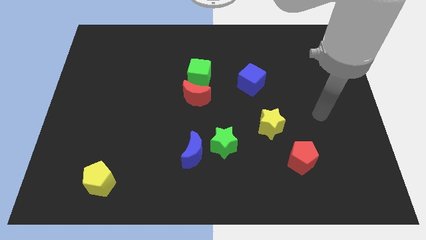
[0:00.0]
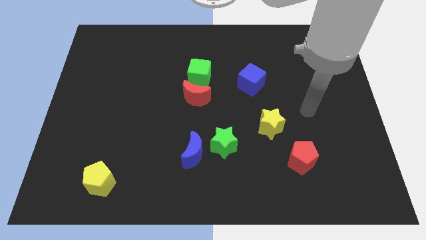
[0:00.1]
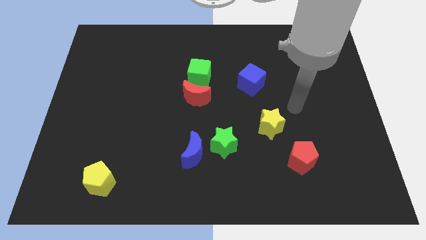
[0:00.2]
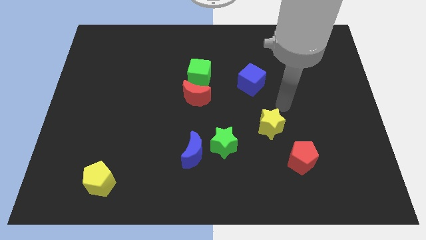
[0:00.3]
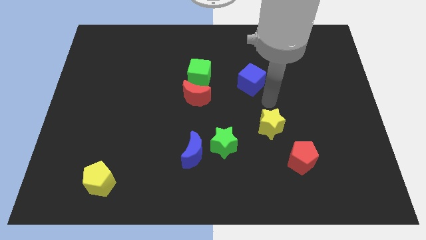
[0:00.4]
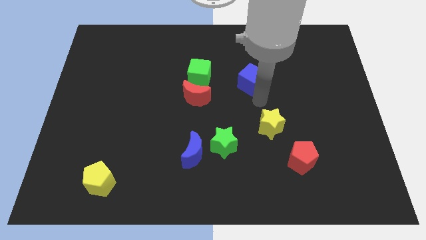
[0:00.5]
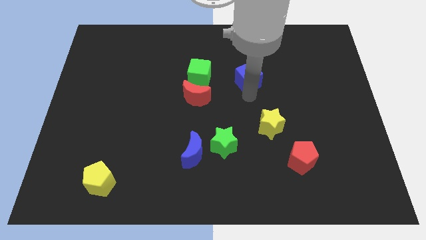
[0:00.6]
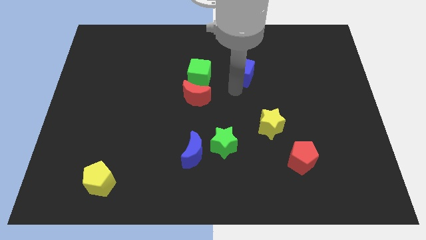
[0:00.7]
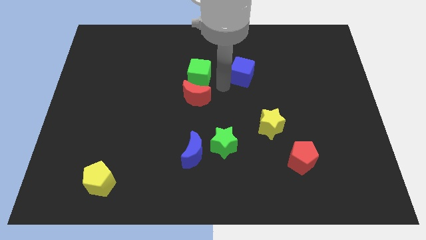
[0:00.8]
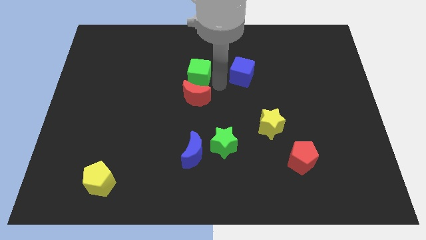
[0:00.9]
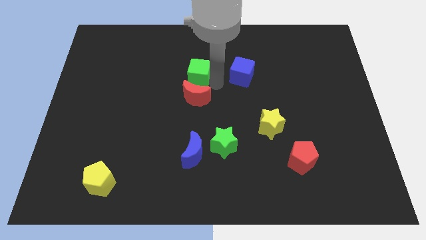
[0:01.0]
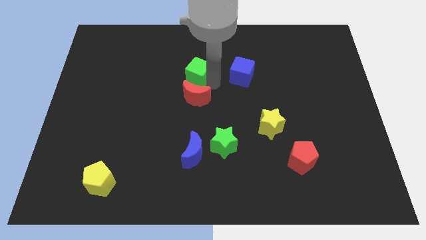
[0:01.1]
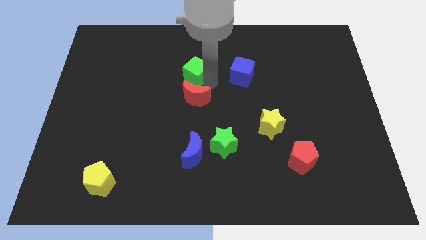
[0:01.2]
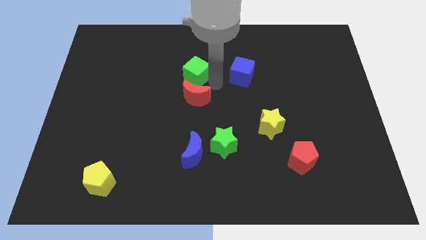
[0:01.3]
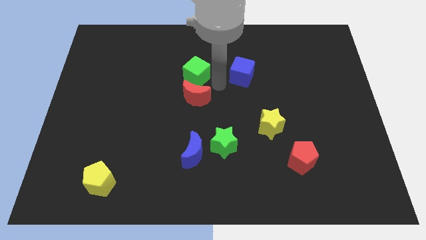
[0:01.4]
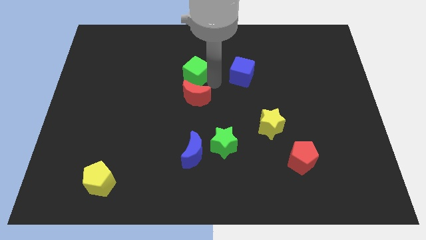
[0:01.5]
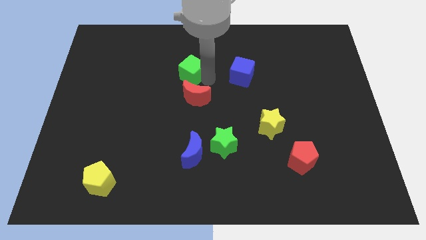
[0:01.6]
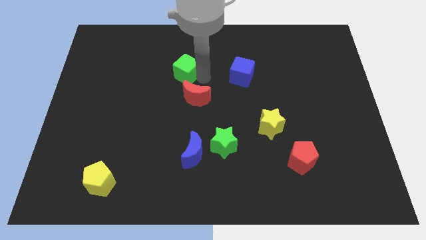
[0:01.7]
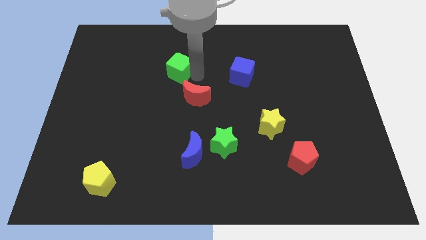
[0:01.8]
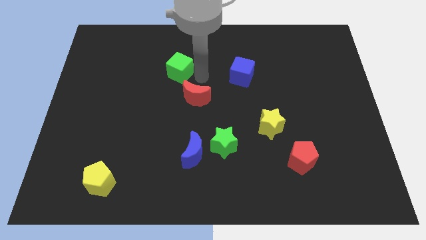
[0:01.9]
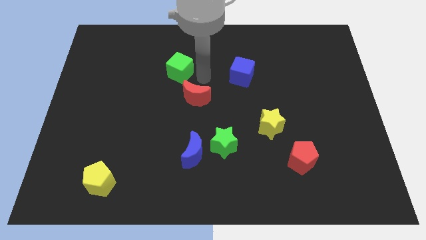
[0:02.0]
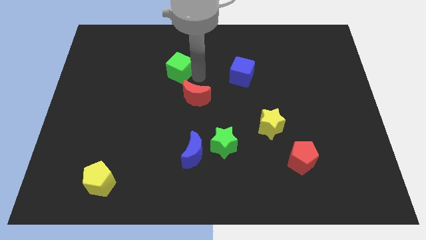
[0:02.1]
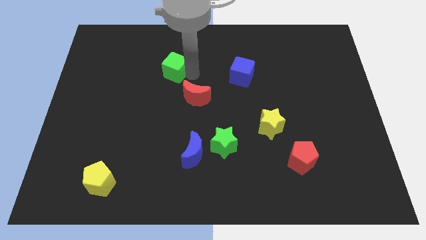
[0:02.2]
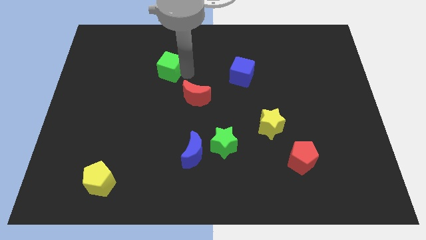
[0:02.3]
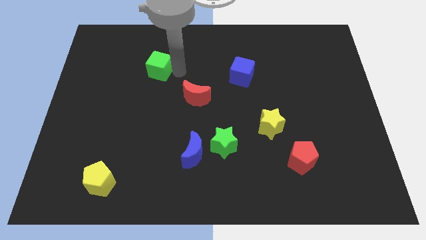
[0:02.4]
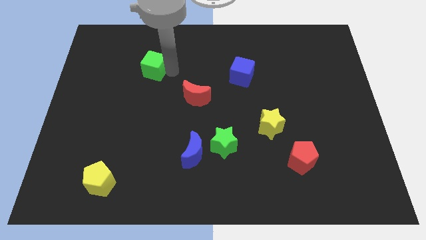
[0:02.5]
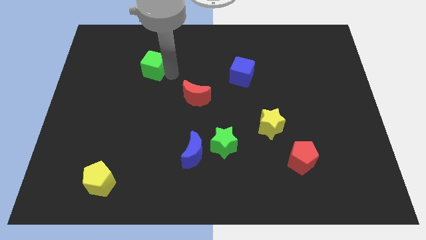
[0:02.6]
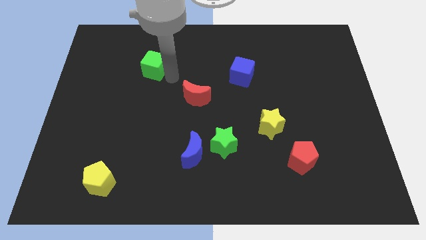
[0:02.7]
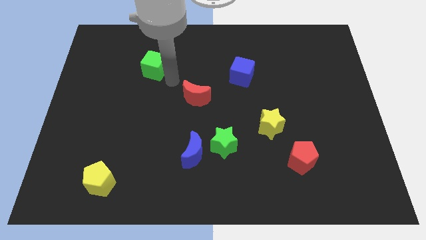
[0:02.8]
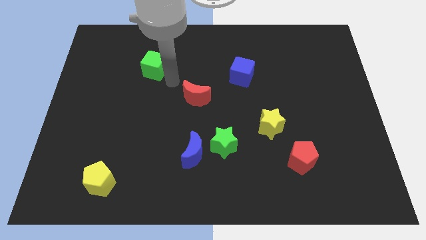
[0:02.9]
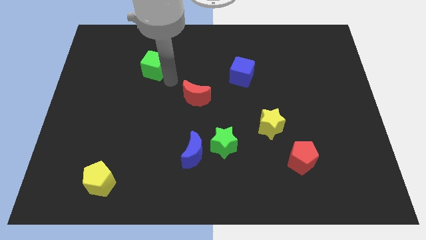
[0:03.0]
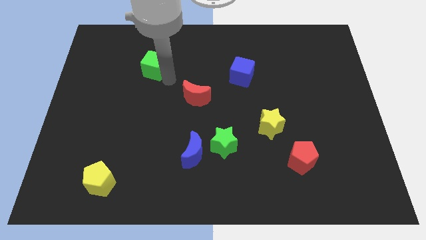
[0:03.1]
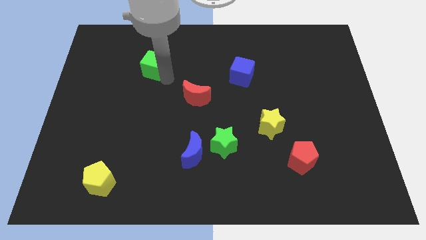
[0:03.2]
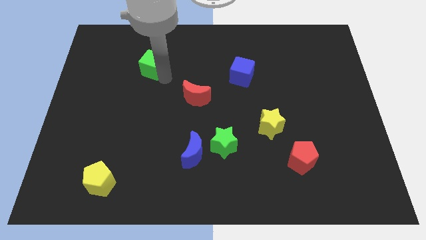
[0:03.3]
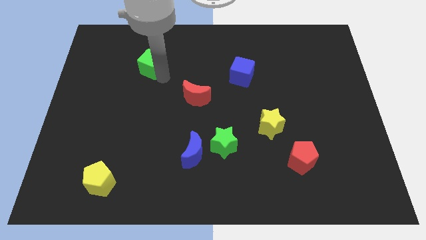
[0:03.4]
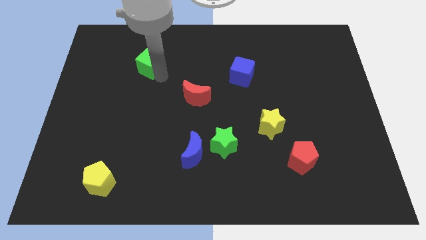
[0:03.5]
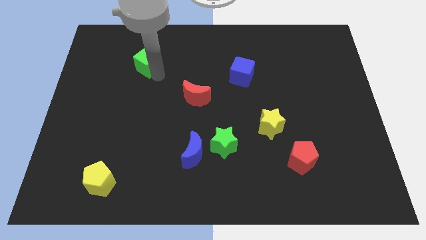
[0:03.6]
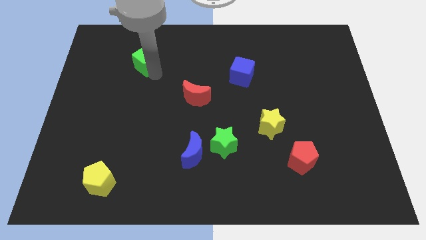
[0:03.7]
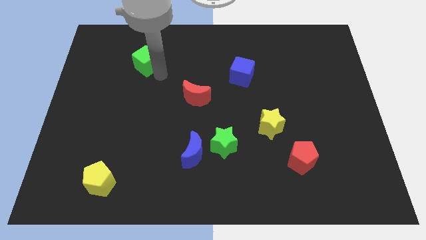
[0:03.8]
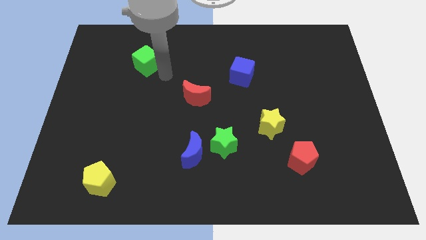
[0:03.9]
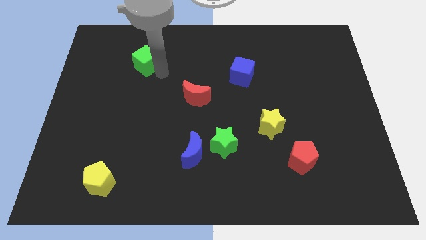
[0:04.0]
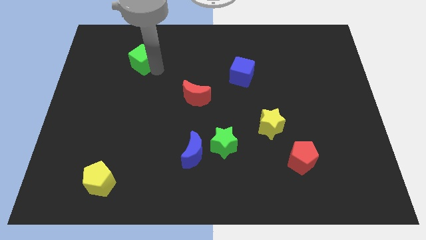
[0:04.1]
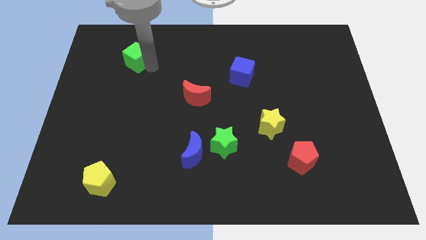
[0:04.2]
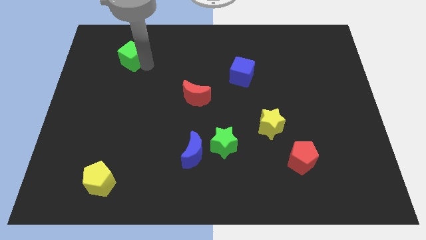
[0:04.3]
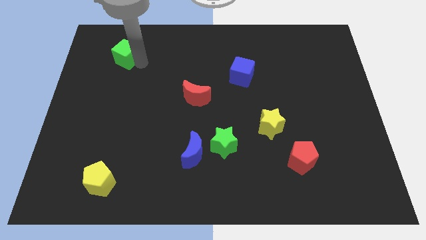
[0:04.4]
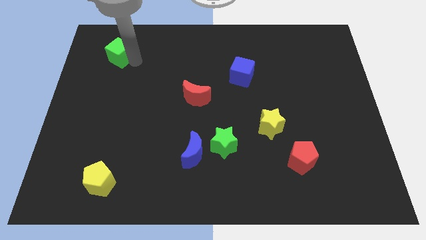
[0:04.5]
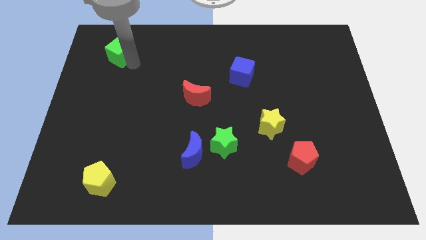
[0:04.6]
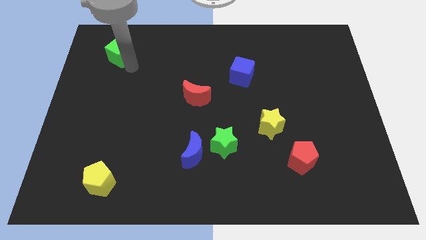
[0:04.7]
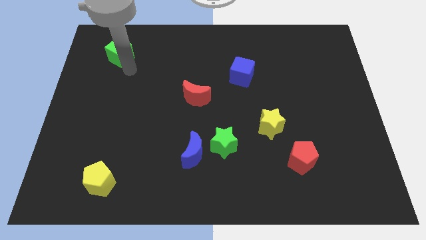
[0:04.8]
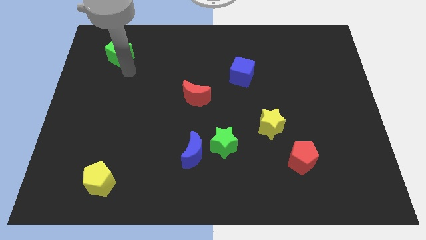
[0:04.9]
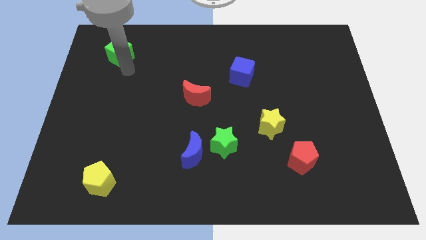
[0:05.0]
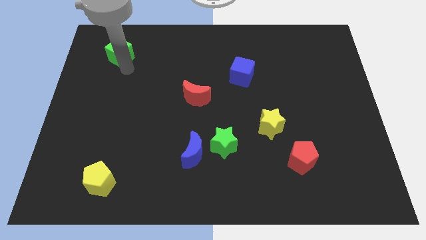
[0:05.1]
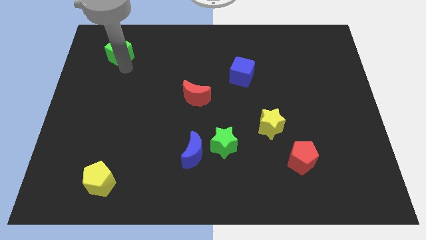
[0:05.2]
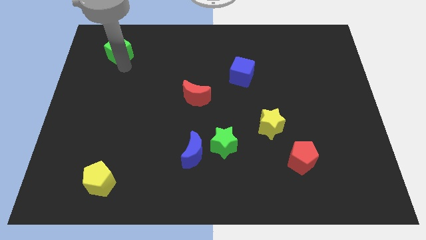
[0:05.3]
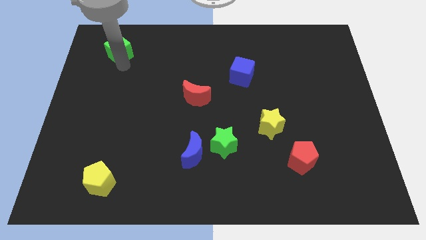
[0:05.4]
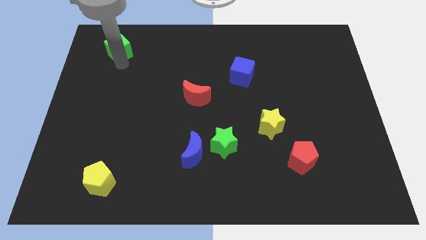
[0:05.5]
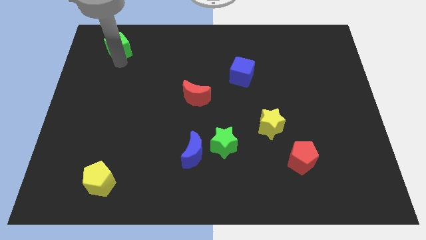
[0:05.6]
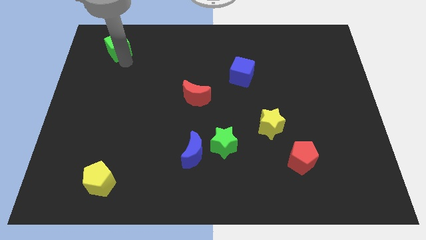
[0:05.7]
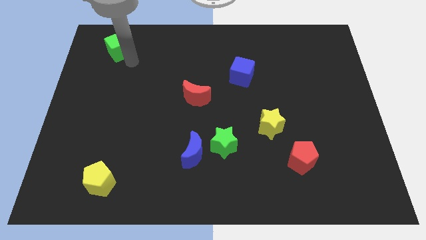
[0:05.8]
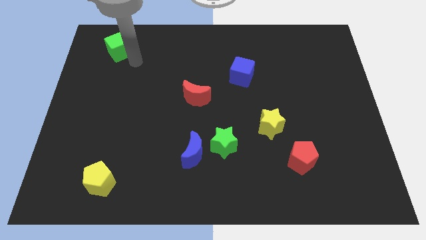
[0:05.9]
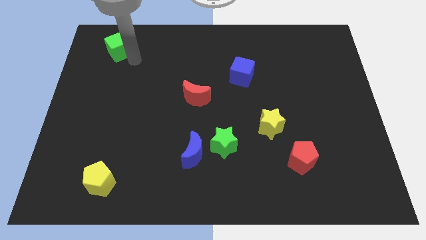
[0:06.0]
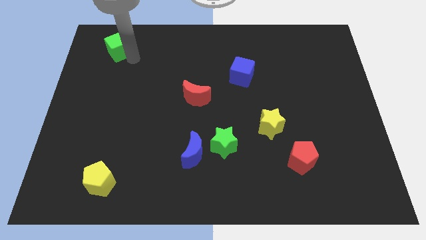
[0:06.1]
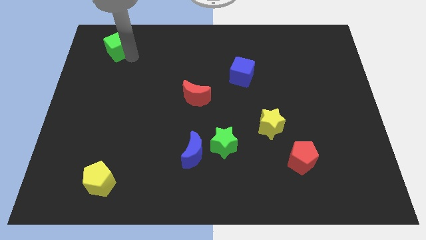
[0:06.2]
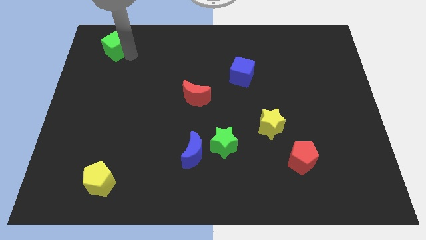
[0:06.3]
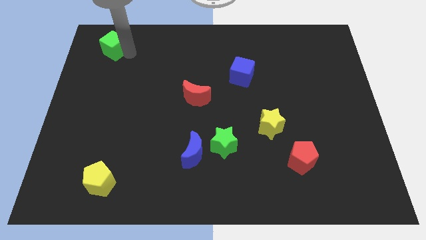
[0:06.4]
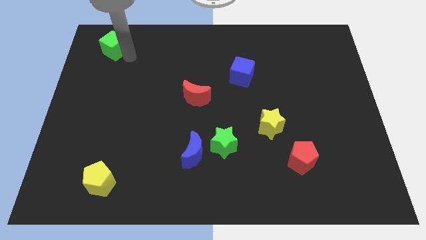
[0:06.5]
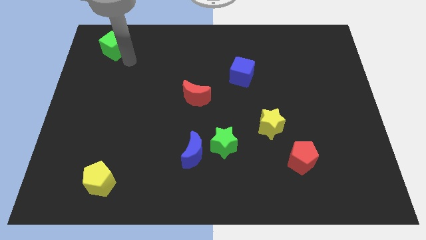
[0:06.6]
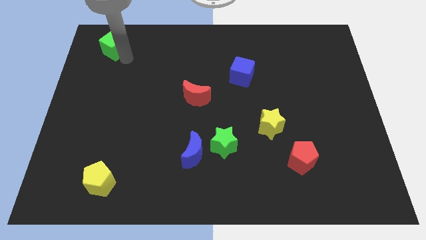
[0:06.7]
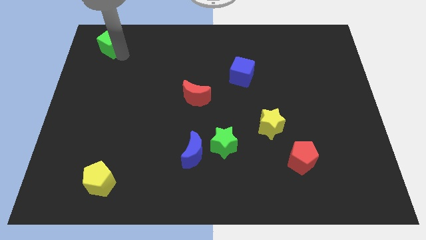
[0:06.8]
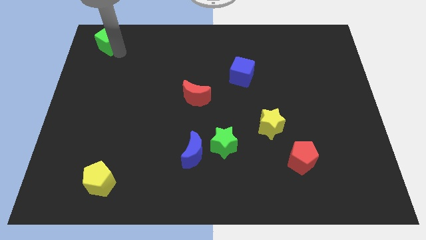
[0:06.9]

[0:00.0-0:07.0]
push the green cube to the top left
